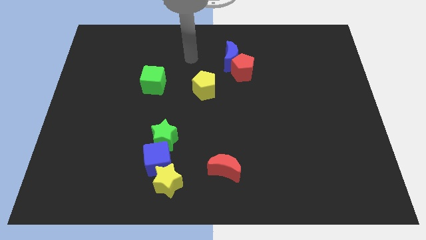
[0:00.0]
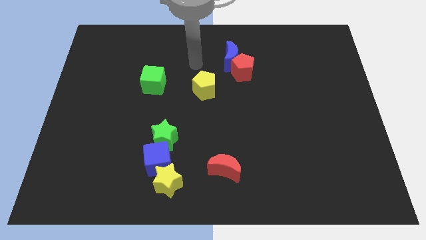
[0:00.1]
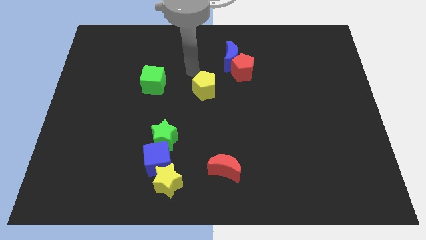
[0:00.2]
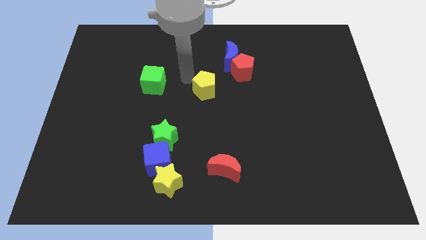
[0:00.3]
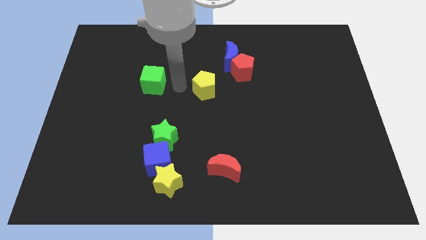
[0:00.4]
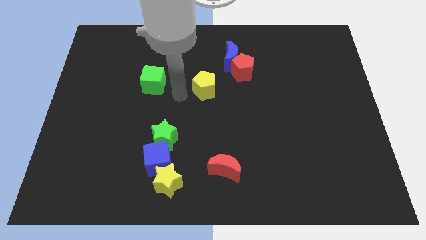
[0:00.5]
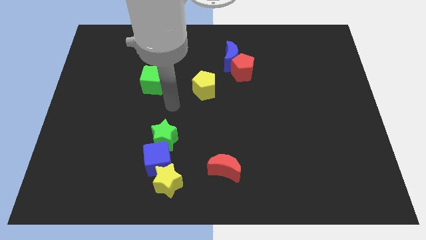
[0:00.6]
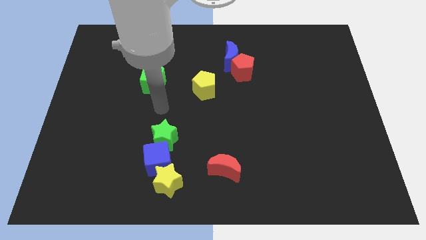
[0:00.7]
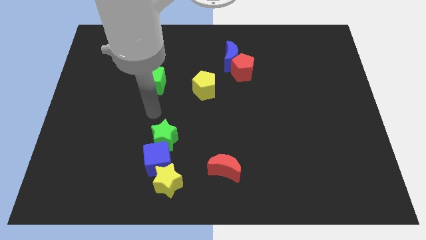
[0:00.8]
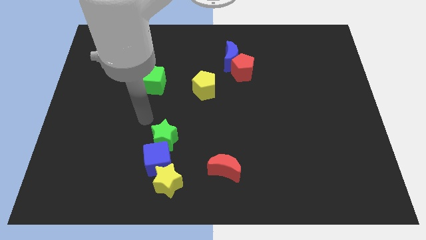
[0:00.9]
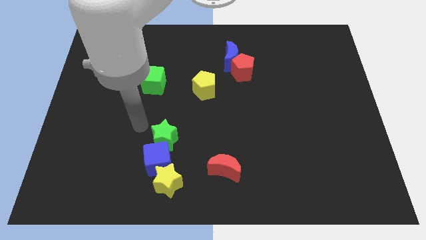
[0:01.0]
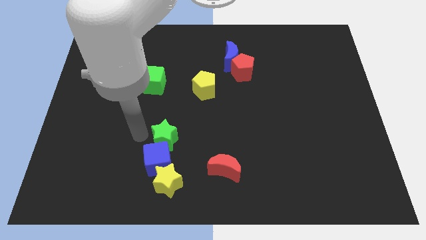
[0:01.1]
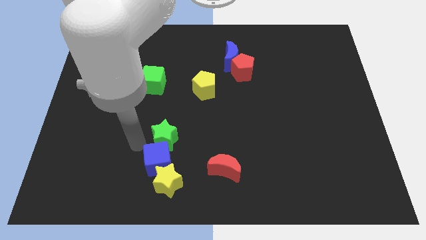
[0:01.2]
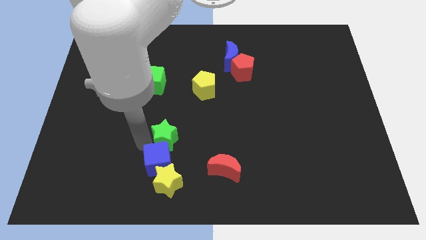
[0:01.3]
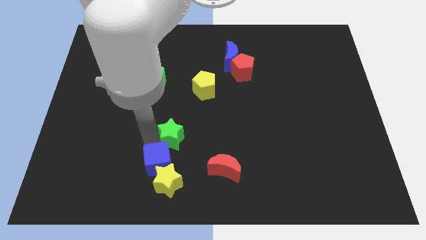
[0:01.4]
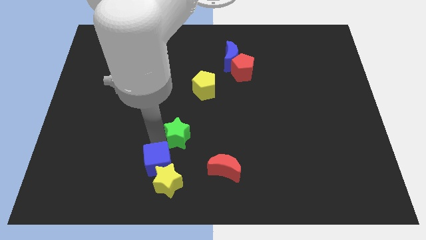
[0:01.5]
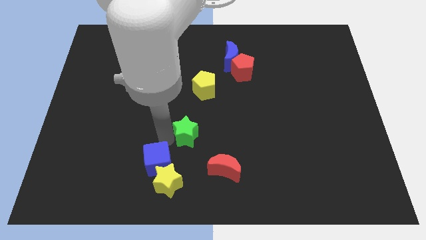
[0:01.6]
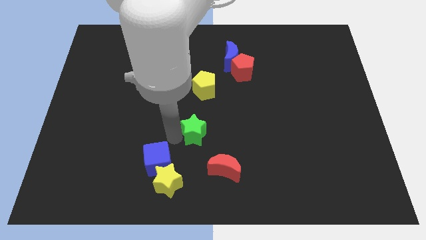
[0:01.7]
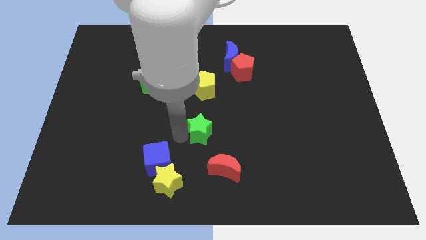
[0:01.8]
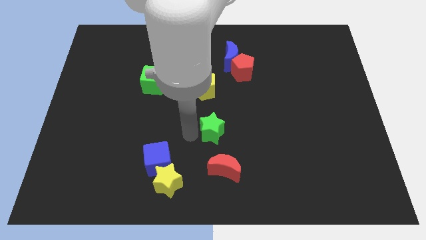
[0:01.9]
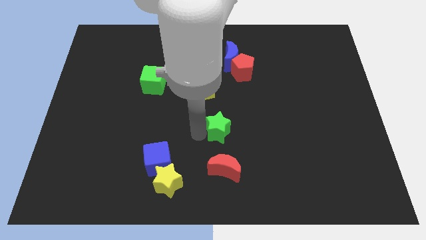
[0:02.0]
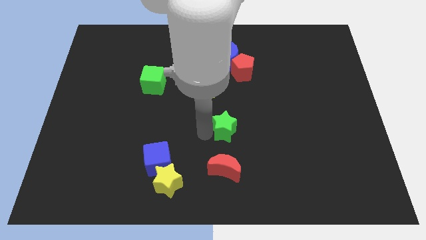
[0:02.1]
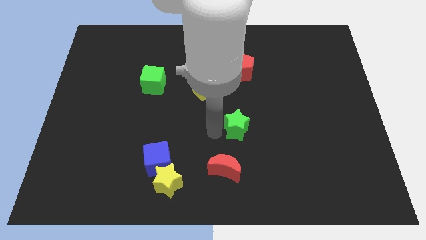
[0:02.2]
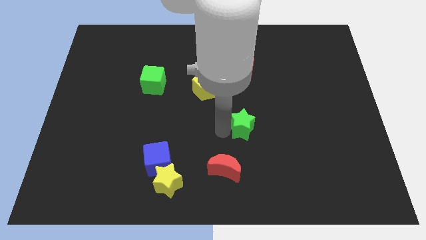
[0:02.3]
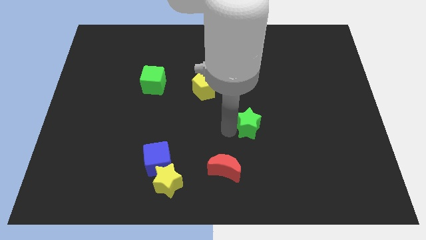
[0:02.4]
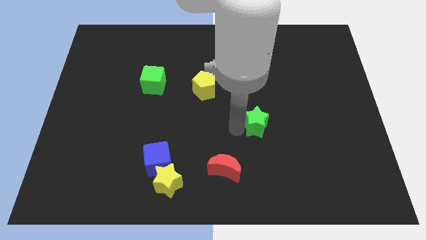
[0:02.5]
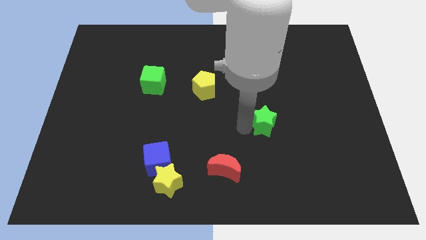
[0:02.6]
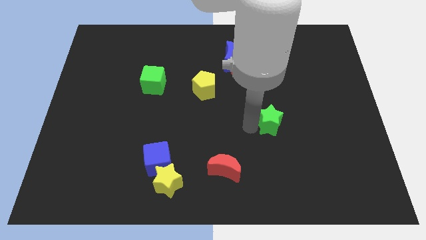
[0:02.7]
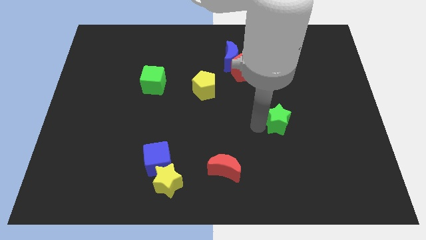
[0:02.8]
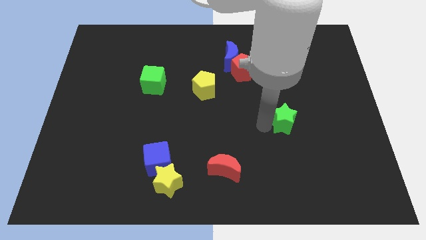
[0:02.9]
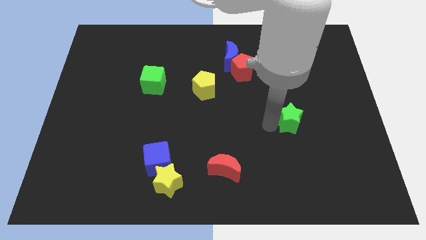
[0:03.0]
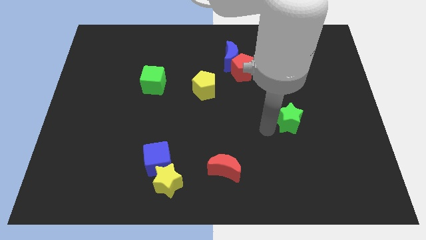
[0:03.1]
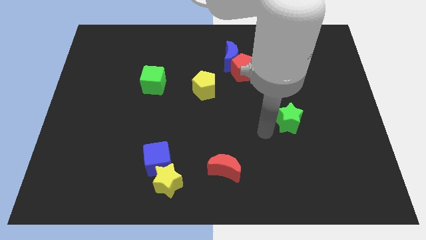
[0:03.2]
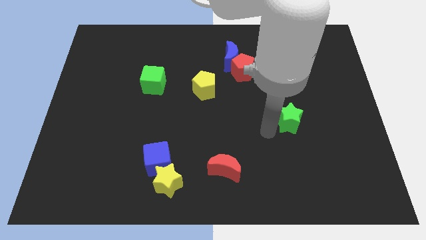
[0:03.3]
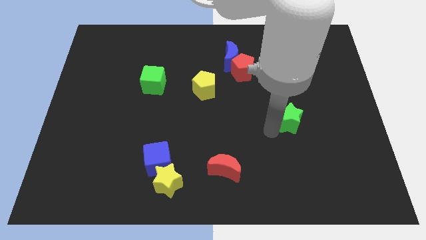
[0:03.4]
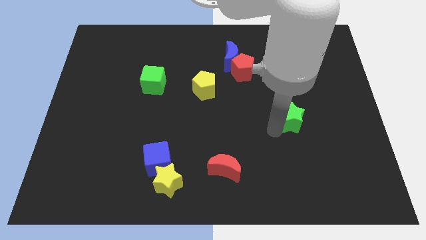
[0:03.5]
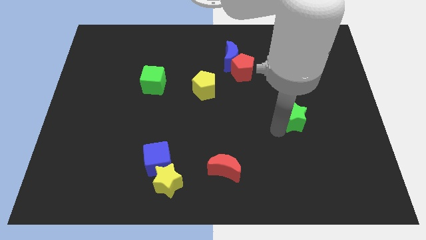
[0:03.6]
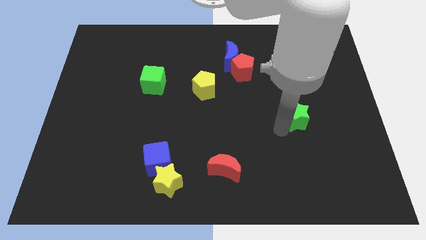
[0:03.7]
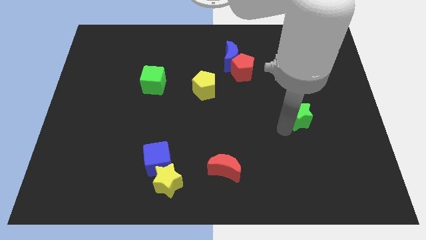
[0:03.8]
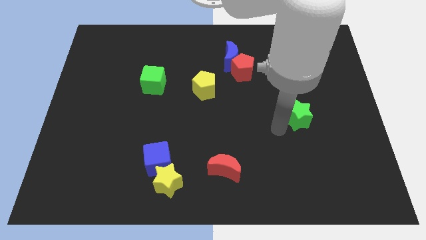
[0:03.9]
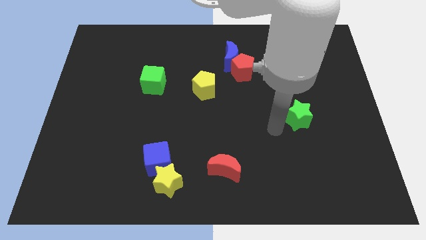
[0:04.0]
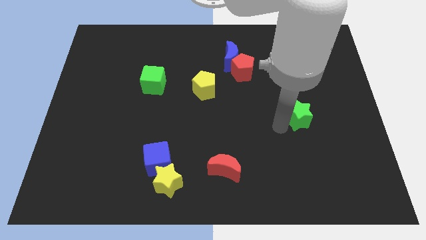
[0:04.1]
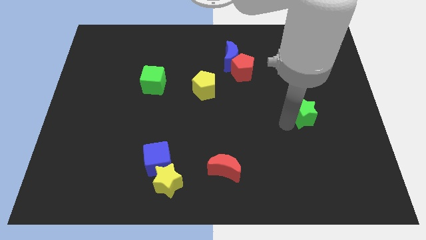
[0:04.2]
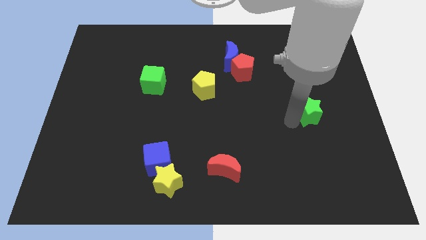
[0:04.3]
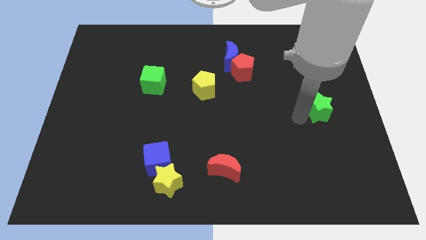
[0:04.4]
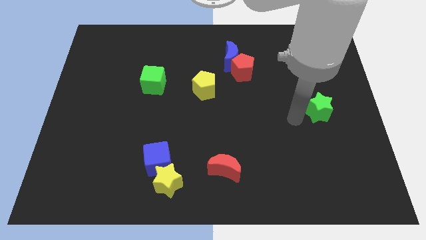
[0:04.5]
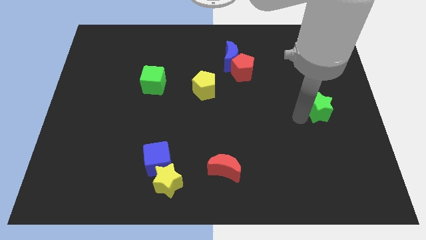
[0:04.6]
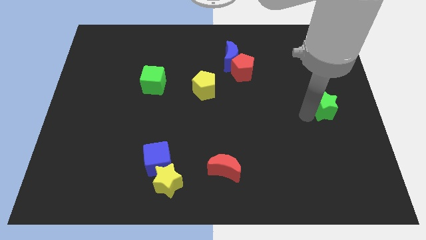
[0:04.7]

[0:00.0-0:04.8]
push the green star to the right side

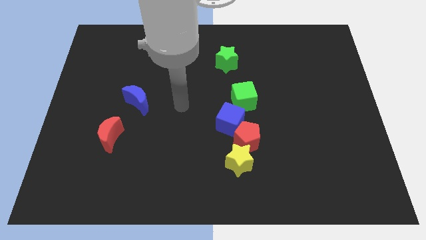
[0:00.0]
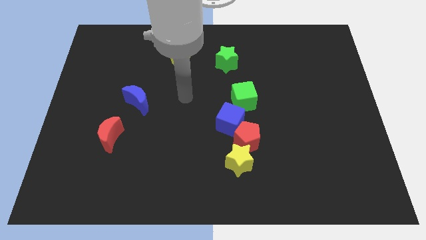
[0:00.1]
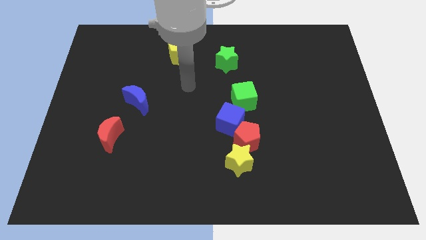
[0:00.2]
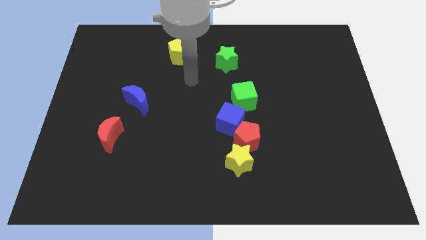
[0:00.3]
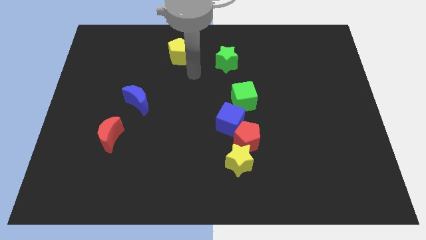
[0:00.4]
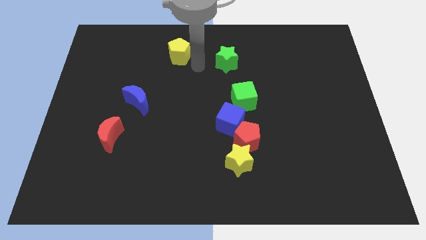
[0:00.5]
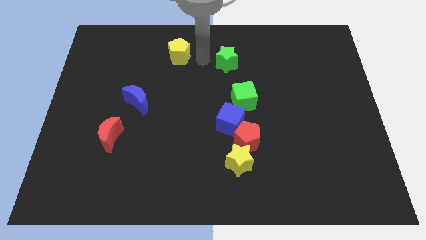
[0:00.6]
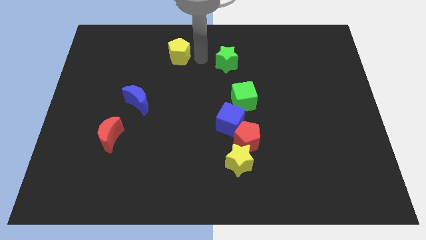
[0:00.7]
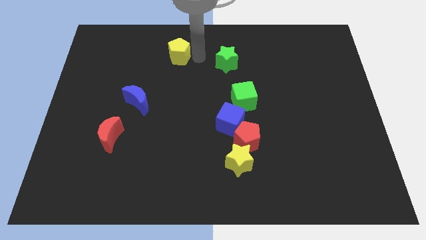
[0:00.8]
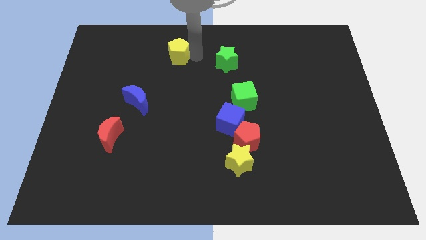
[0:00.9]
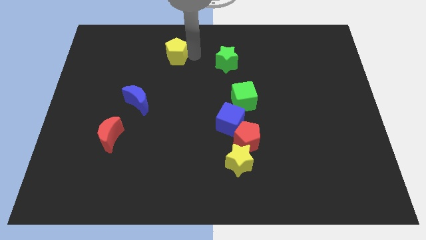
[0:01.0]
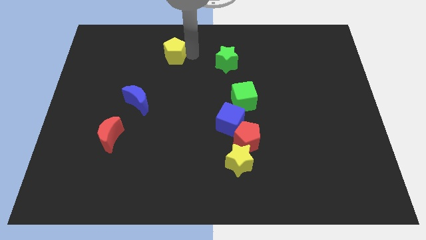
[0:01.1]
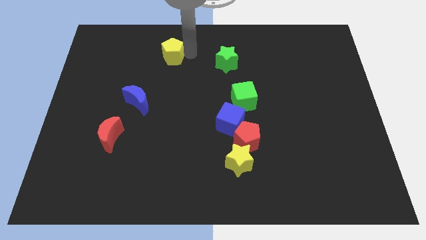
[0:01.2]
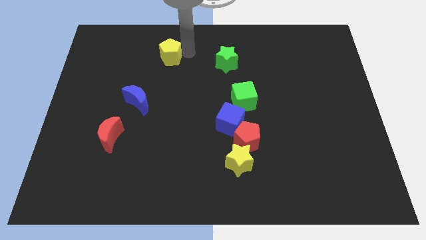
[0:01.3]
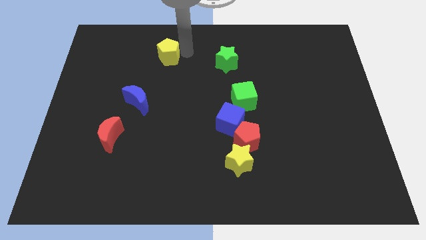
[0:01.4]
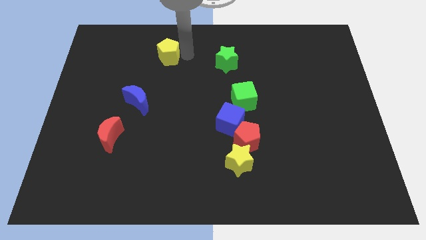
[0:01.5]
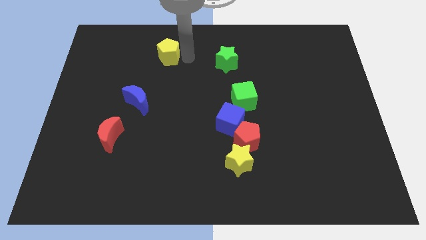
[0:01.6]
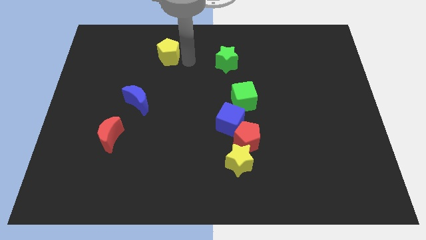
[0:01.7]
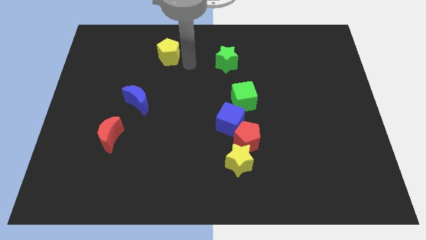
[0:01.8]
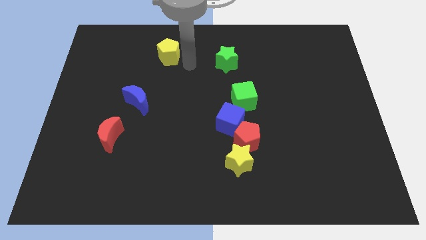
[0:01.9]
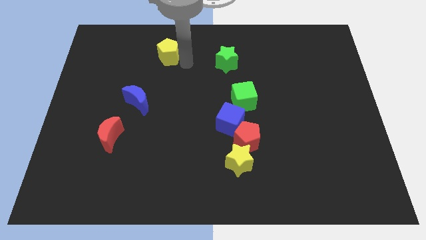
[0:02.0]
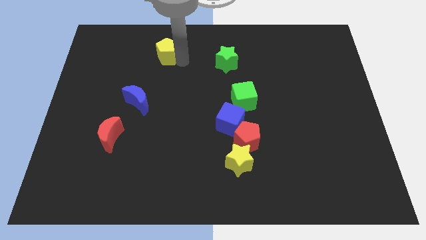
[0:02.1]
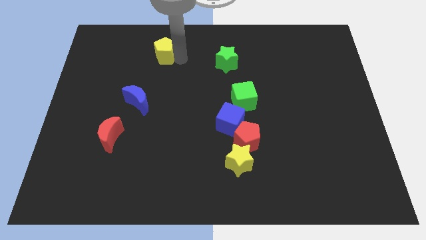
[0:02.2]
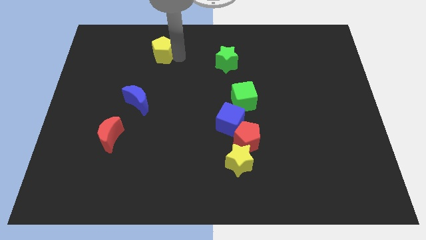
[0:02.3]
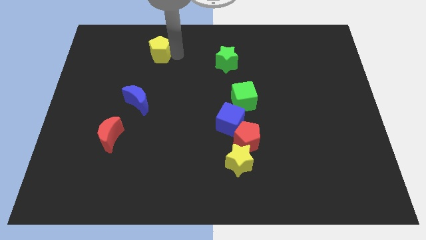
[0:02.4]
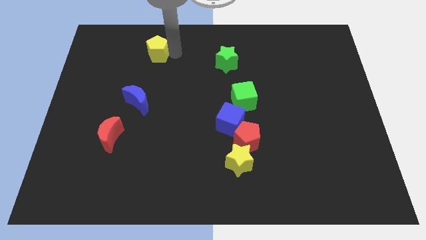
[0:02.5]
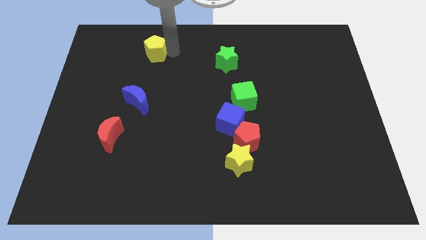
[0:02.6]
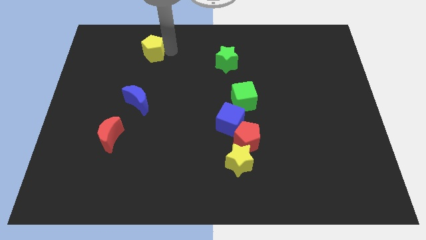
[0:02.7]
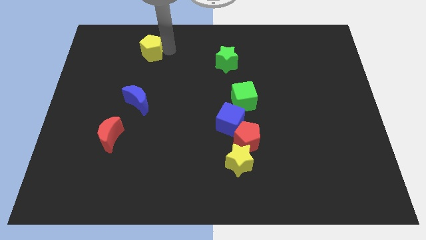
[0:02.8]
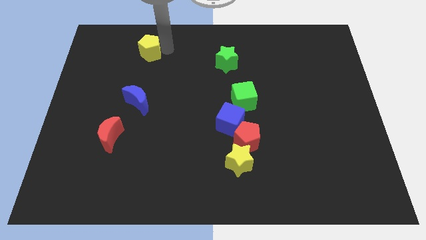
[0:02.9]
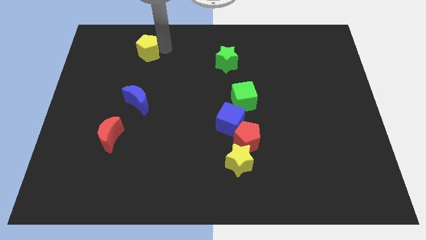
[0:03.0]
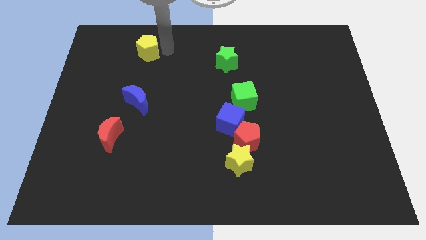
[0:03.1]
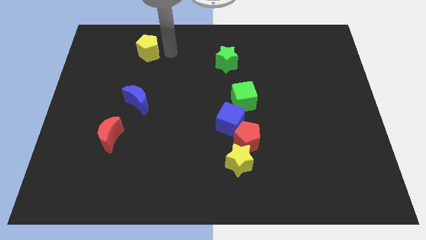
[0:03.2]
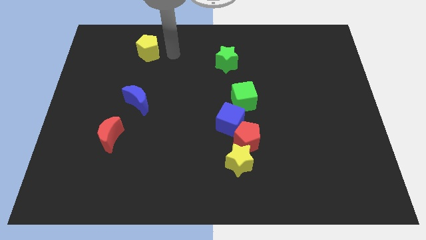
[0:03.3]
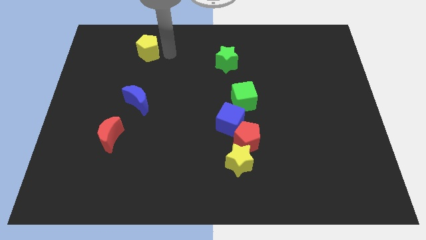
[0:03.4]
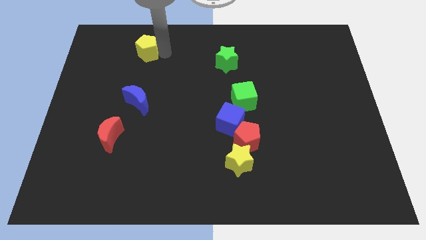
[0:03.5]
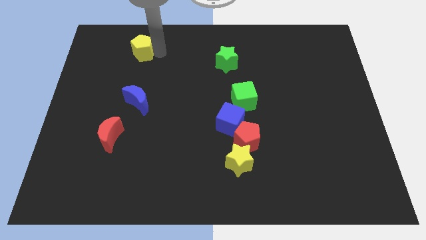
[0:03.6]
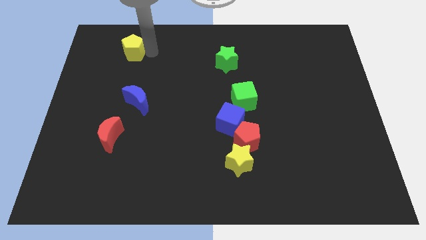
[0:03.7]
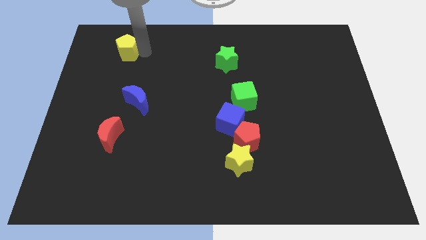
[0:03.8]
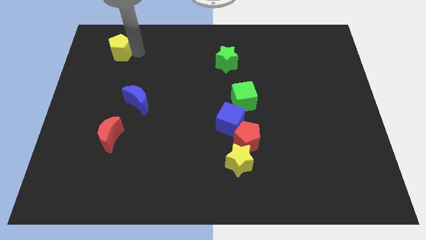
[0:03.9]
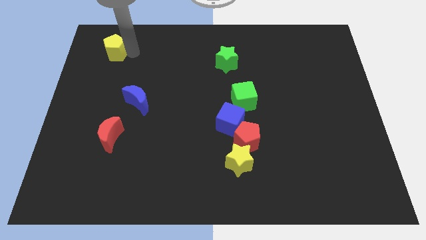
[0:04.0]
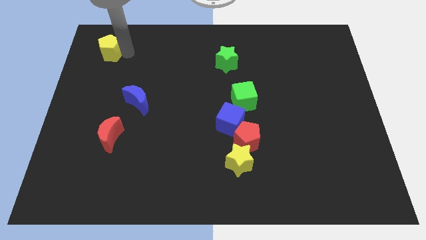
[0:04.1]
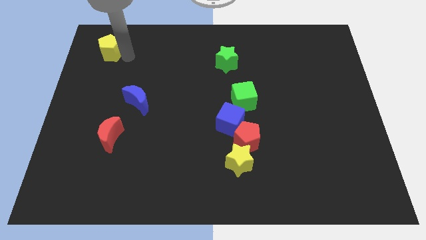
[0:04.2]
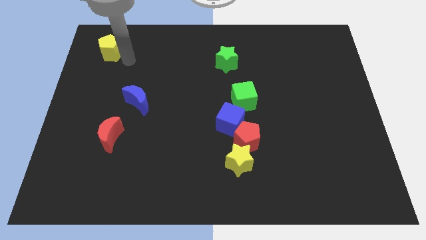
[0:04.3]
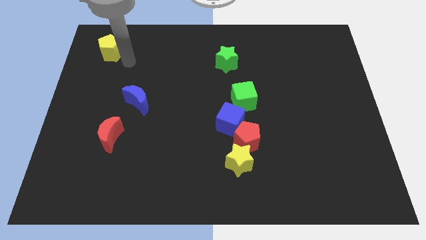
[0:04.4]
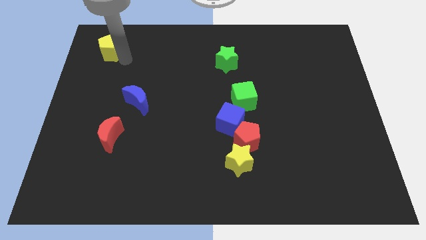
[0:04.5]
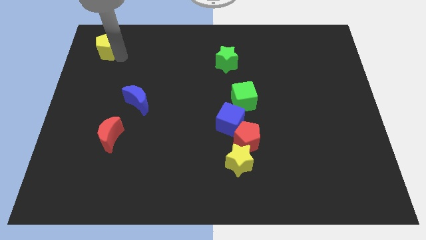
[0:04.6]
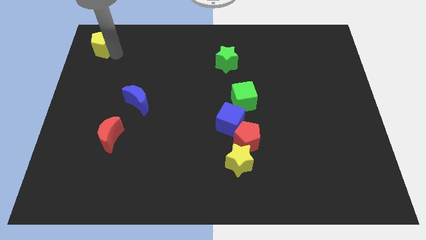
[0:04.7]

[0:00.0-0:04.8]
slide the yellow pentagon to the upper left corner
